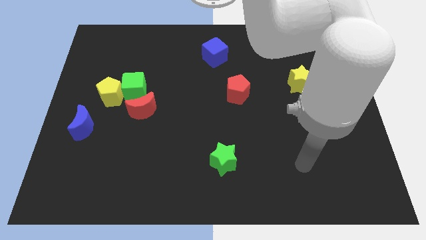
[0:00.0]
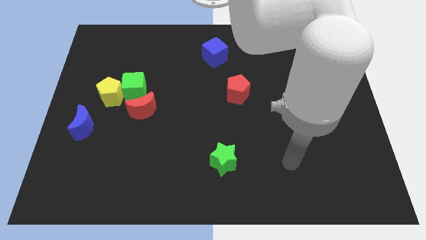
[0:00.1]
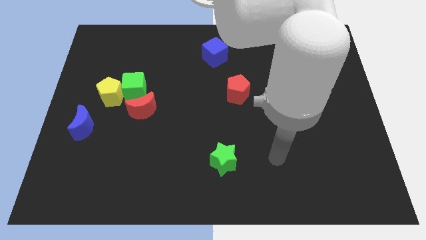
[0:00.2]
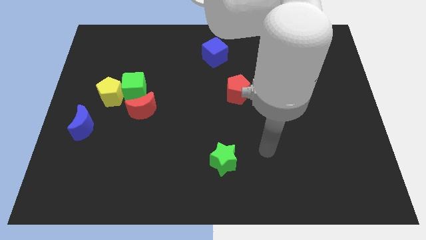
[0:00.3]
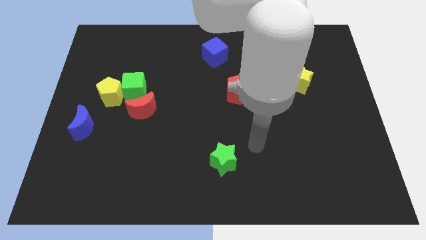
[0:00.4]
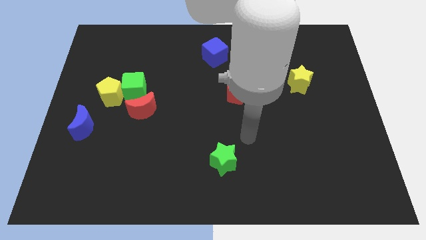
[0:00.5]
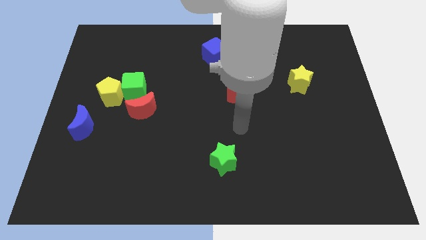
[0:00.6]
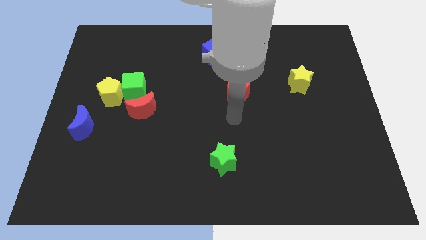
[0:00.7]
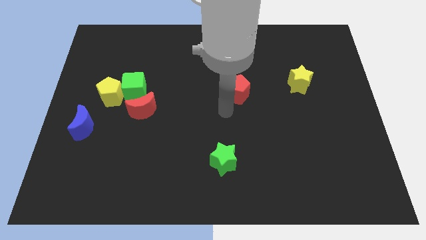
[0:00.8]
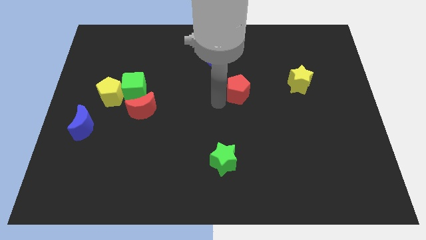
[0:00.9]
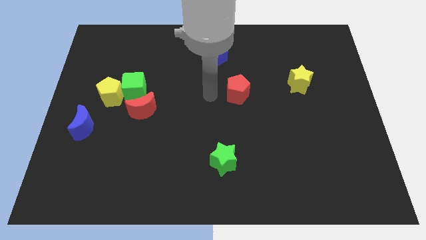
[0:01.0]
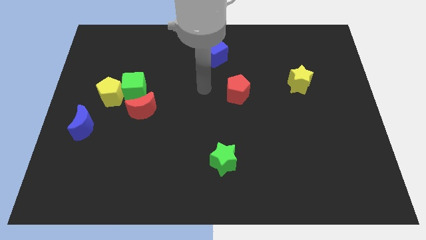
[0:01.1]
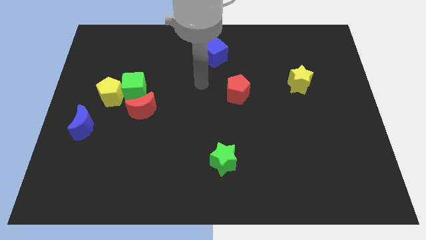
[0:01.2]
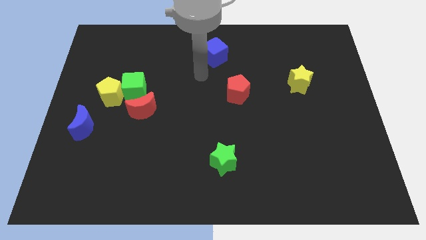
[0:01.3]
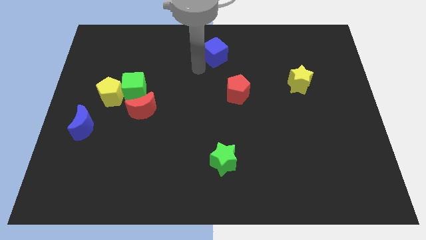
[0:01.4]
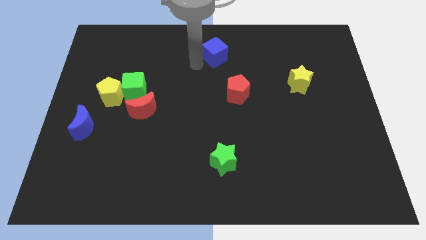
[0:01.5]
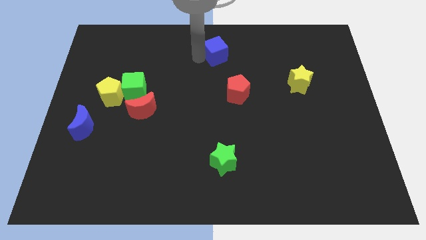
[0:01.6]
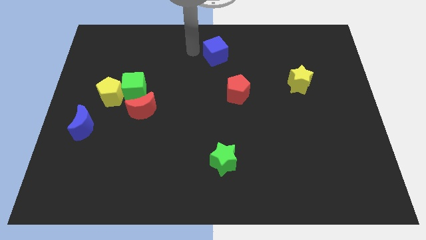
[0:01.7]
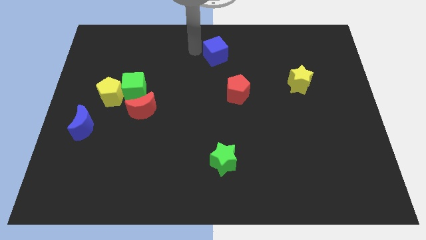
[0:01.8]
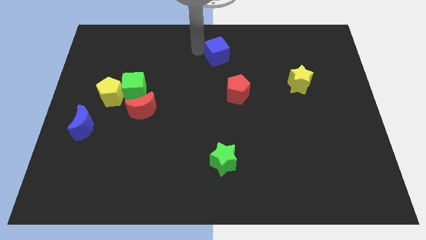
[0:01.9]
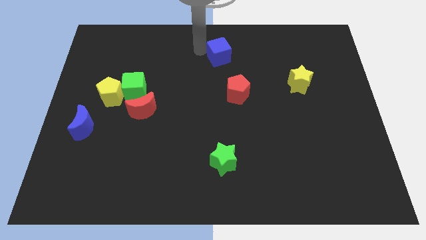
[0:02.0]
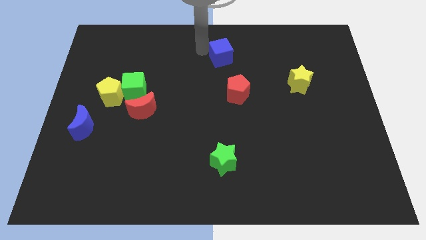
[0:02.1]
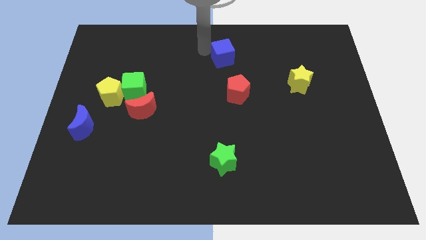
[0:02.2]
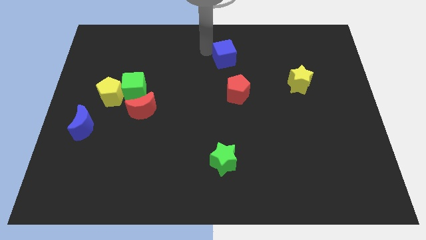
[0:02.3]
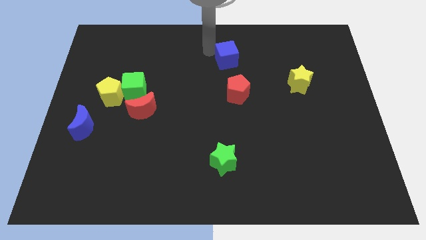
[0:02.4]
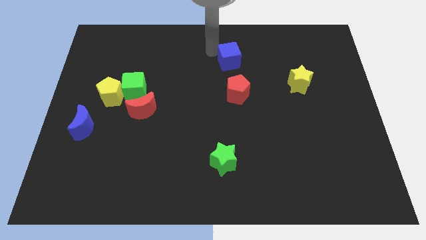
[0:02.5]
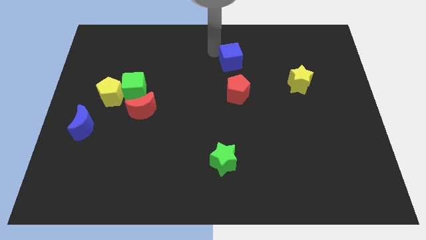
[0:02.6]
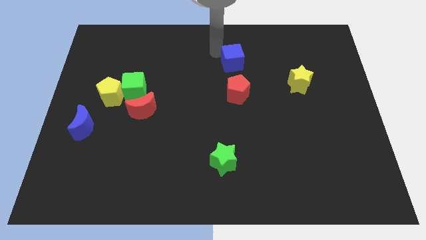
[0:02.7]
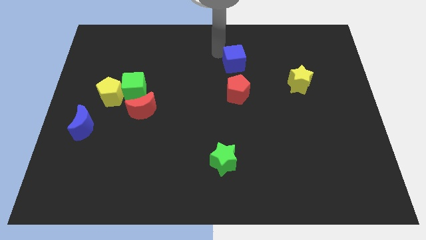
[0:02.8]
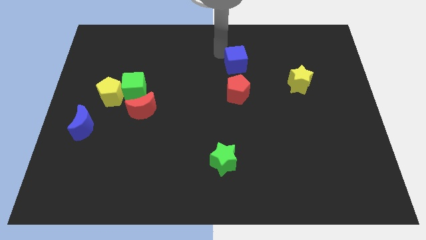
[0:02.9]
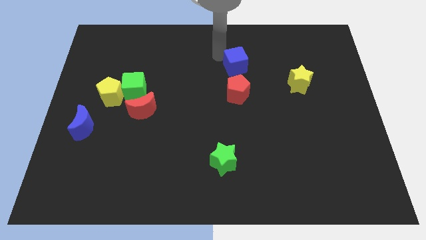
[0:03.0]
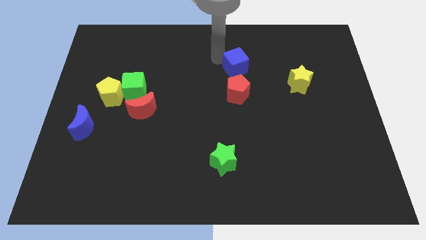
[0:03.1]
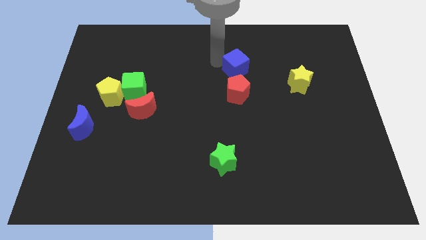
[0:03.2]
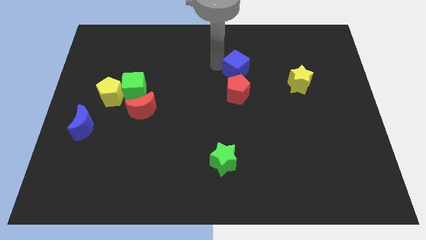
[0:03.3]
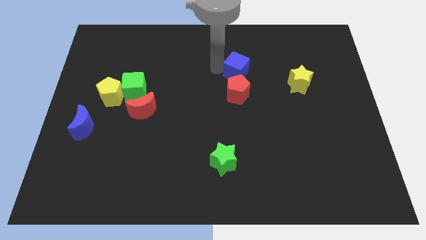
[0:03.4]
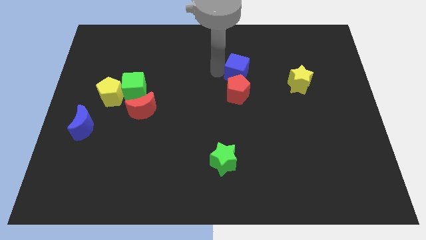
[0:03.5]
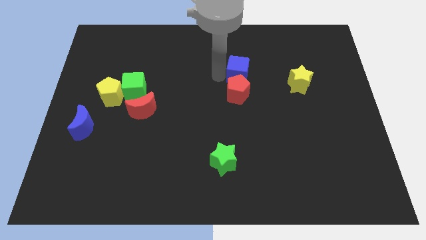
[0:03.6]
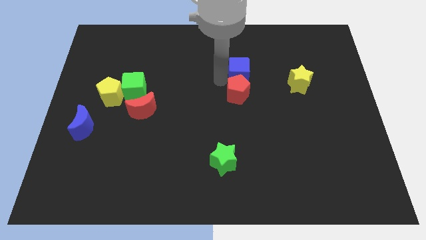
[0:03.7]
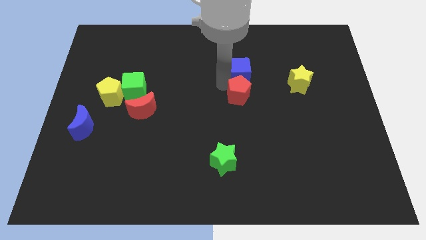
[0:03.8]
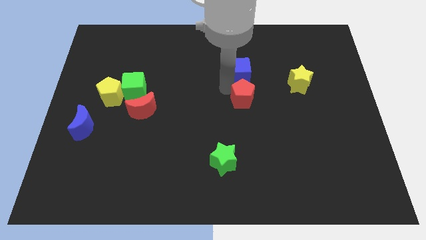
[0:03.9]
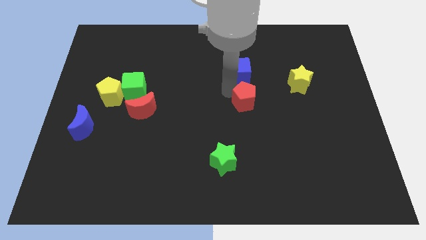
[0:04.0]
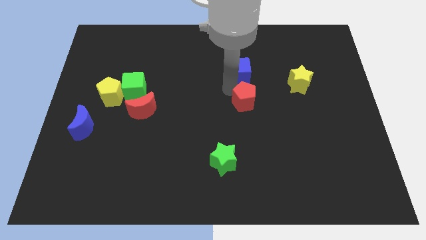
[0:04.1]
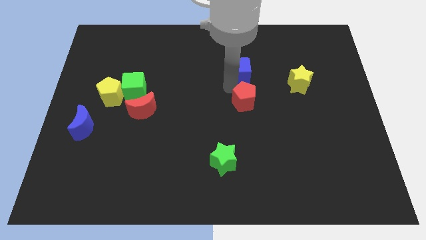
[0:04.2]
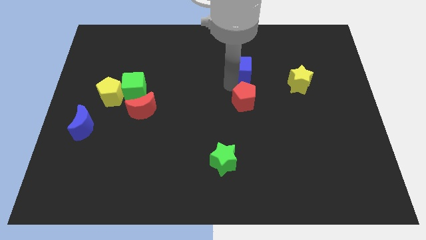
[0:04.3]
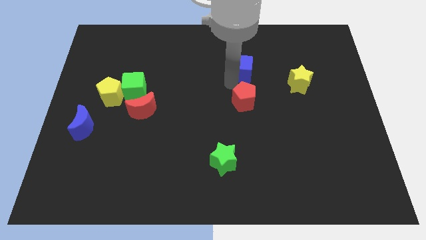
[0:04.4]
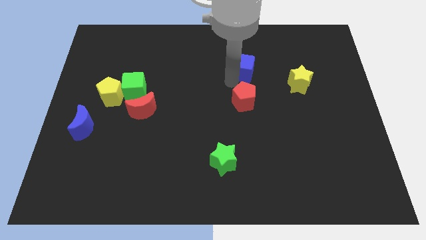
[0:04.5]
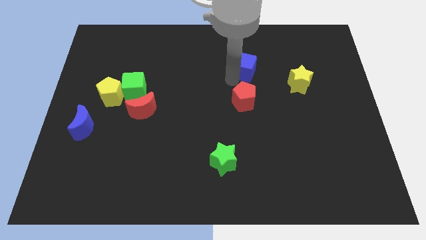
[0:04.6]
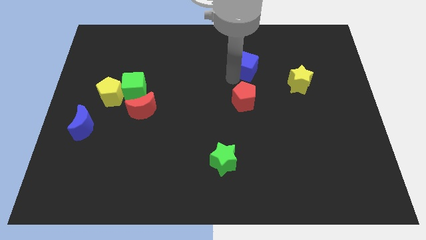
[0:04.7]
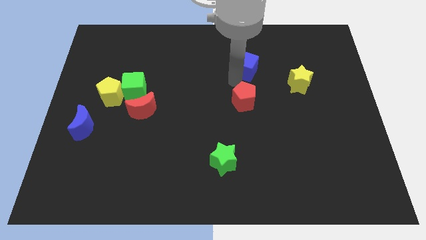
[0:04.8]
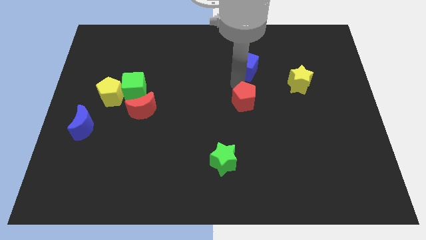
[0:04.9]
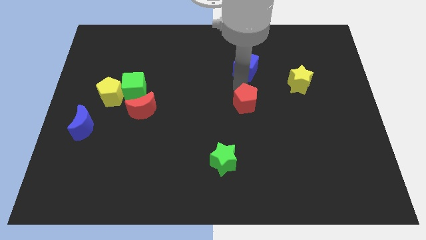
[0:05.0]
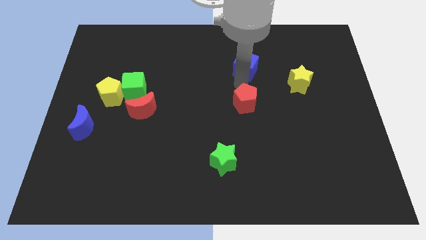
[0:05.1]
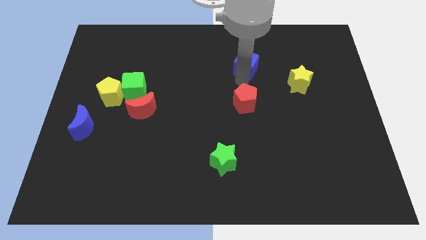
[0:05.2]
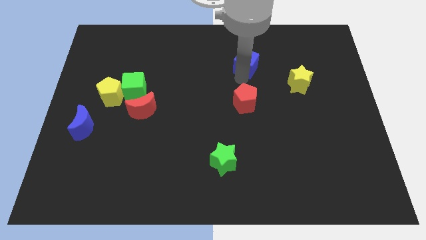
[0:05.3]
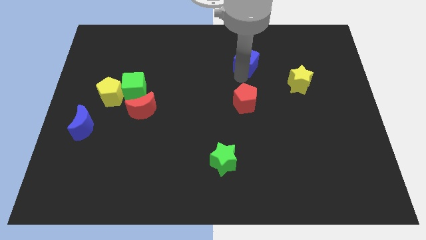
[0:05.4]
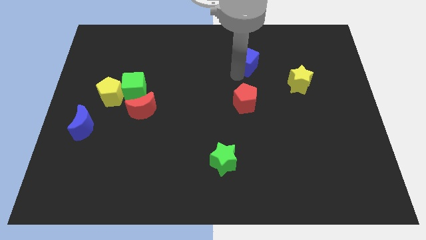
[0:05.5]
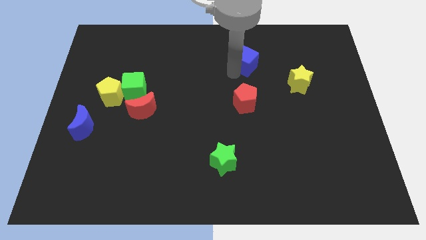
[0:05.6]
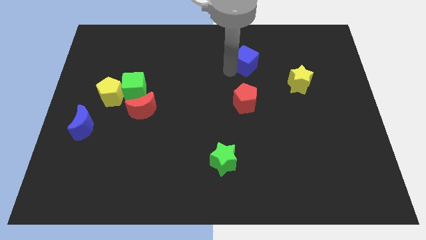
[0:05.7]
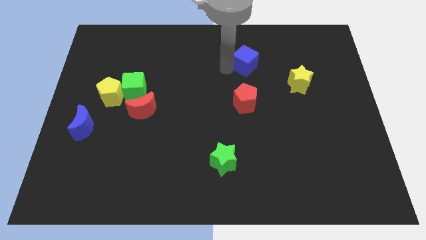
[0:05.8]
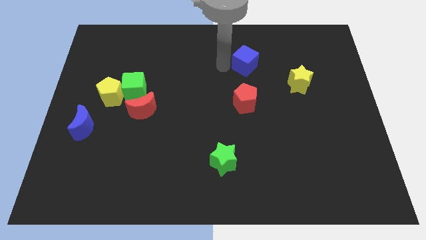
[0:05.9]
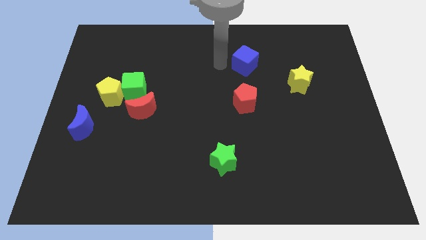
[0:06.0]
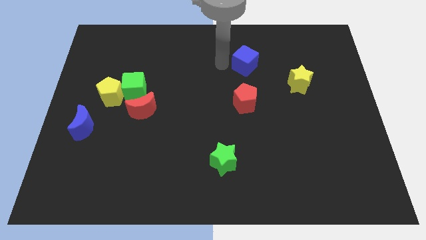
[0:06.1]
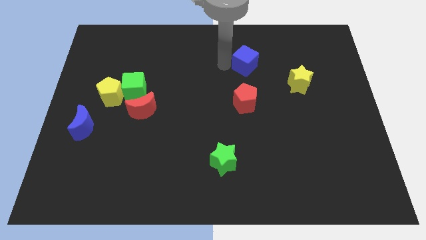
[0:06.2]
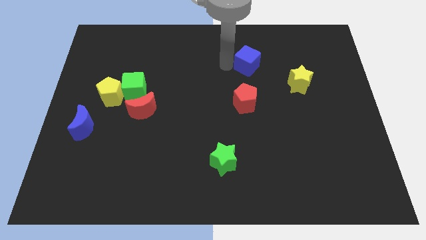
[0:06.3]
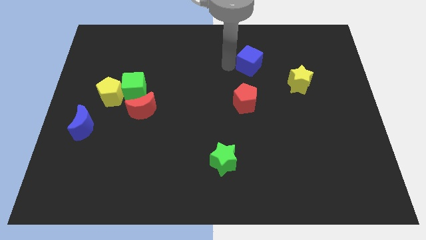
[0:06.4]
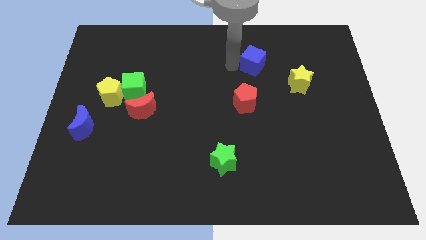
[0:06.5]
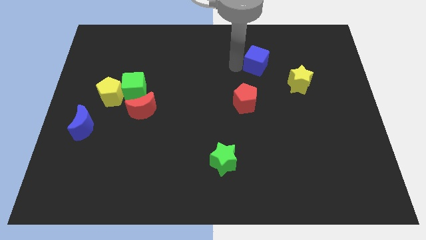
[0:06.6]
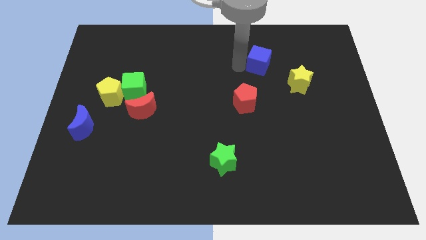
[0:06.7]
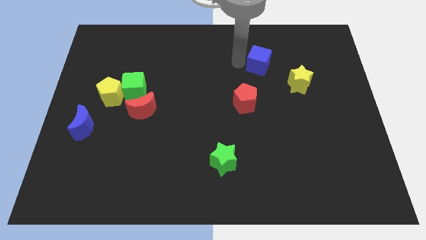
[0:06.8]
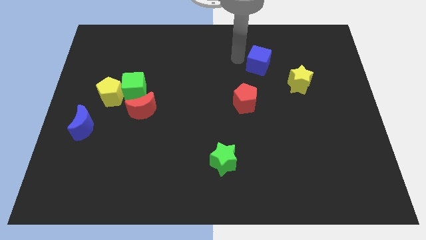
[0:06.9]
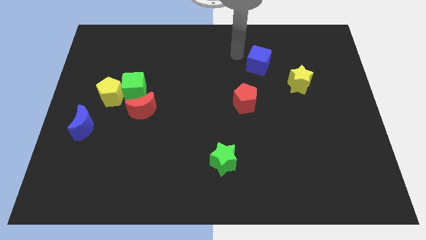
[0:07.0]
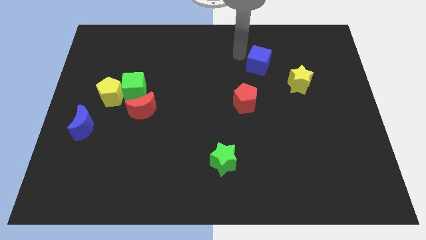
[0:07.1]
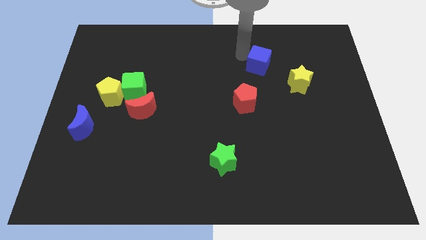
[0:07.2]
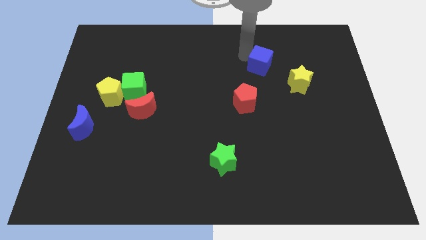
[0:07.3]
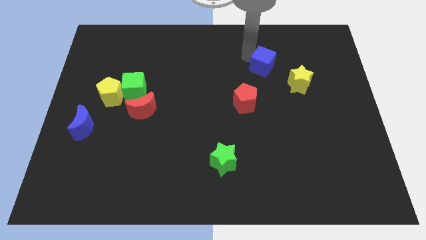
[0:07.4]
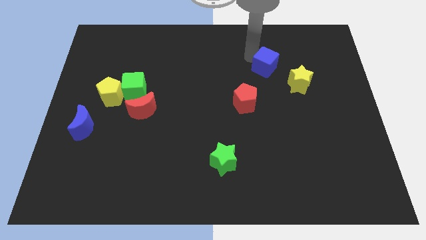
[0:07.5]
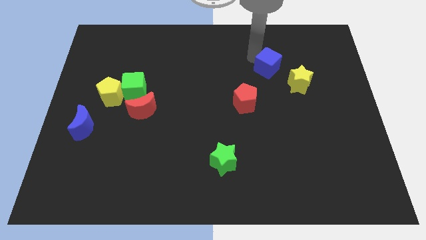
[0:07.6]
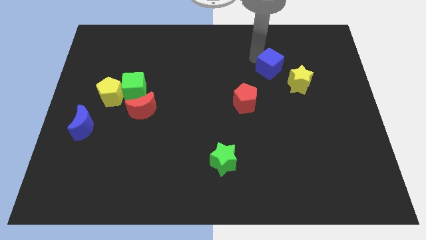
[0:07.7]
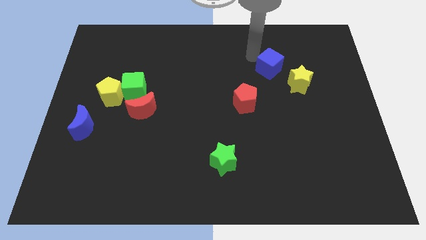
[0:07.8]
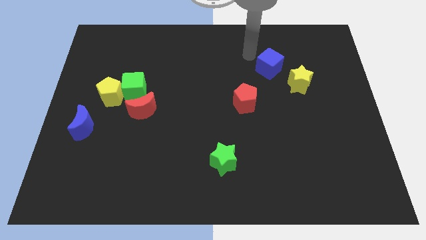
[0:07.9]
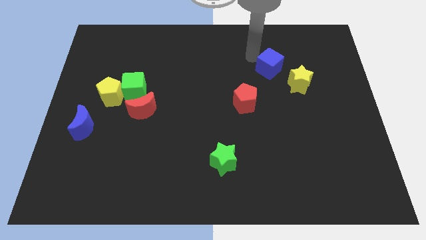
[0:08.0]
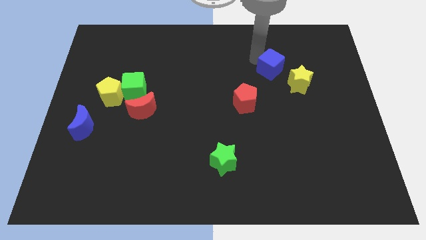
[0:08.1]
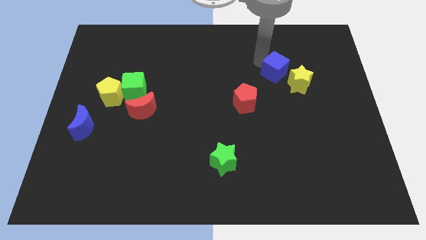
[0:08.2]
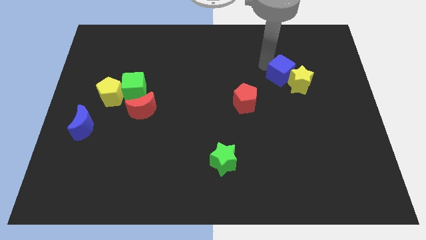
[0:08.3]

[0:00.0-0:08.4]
push the blue cube to the yellow star
